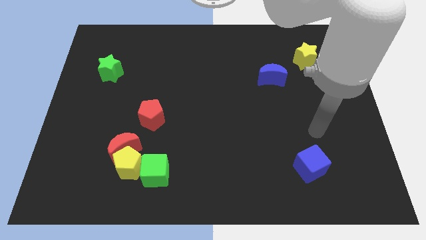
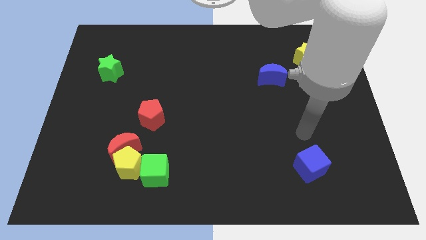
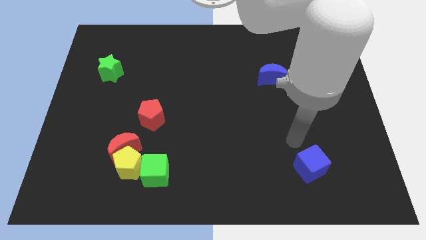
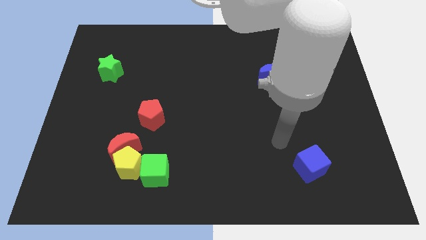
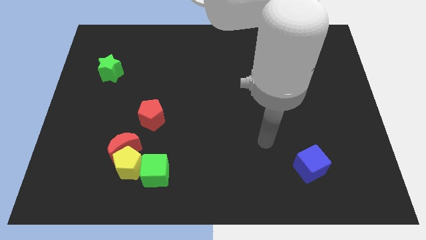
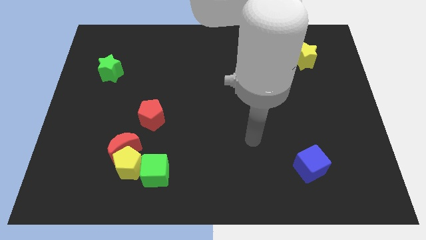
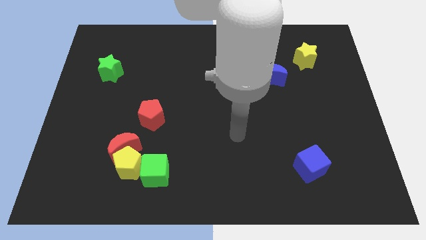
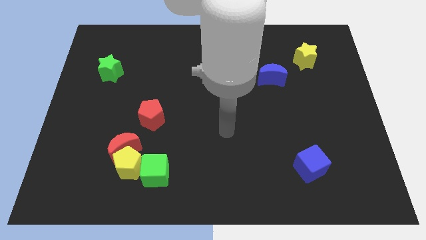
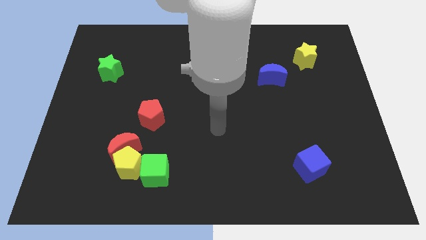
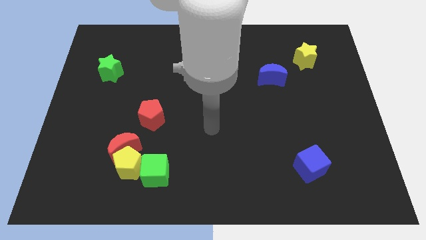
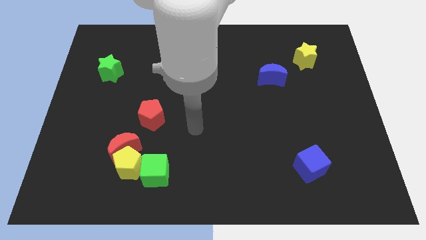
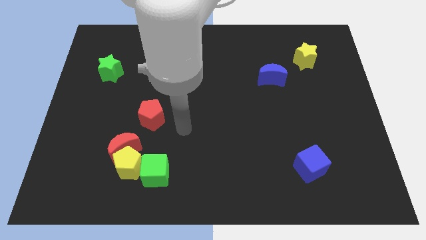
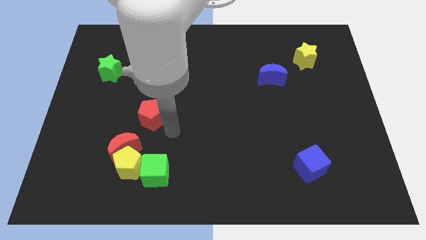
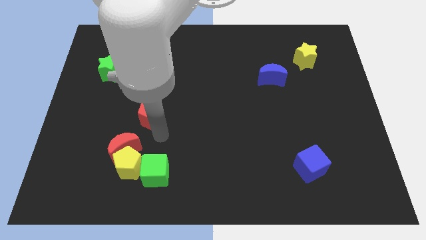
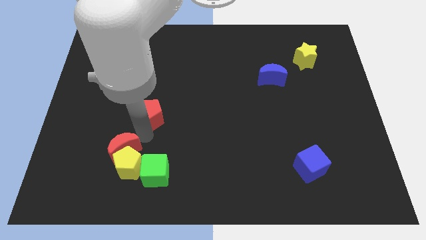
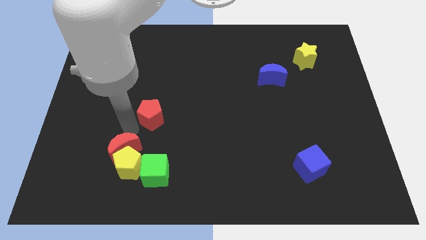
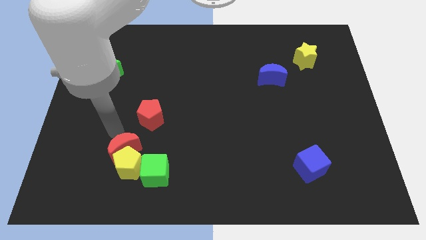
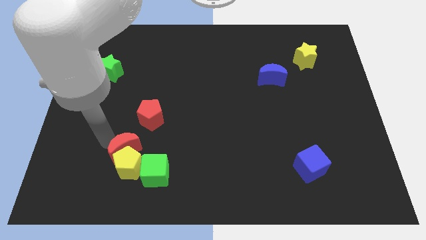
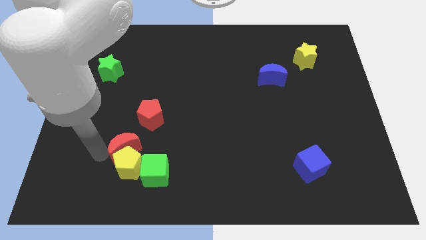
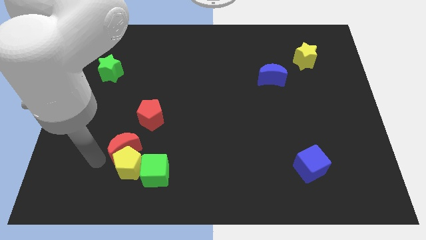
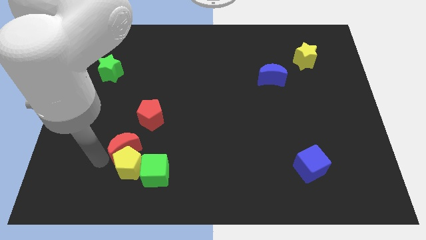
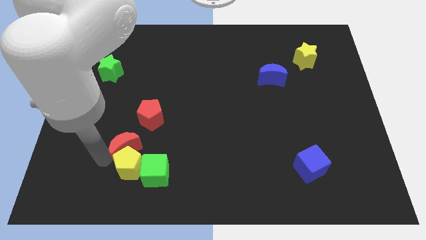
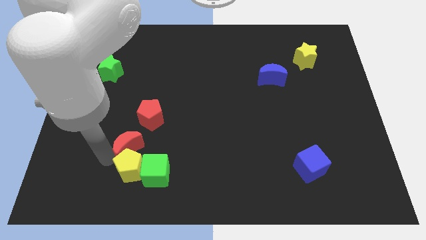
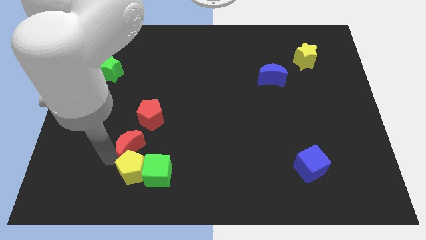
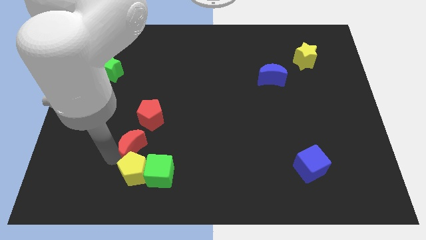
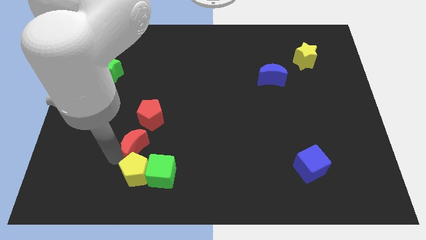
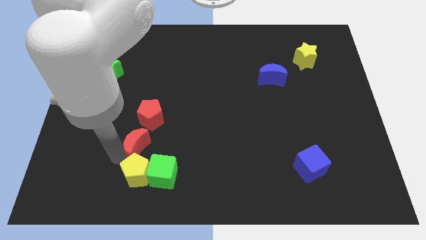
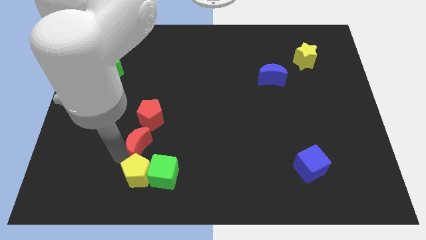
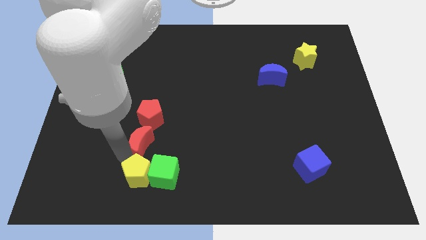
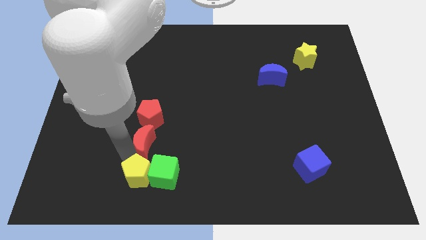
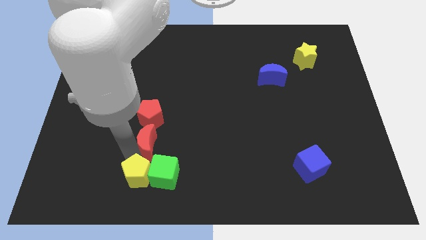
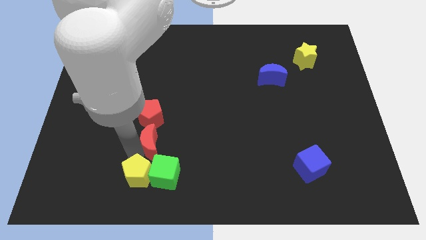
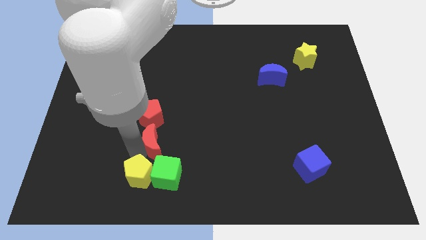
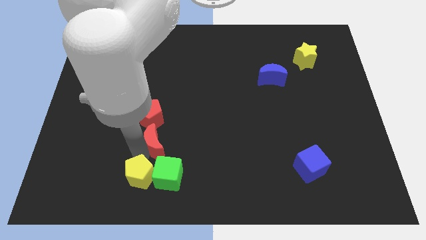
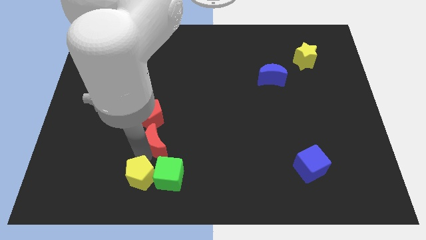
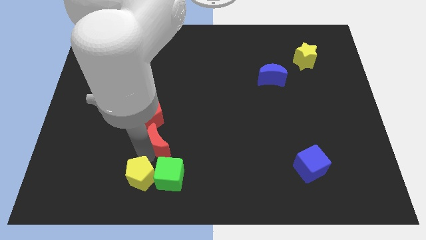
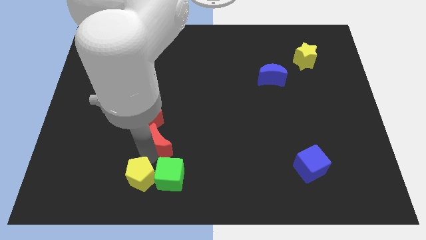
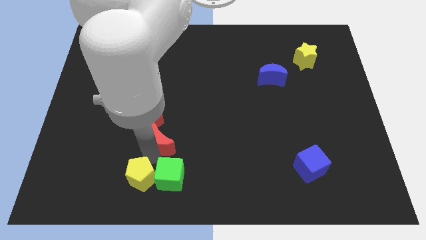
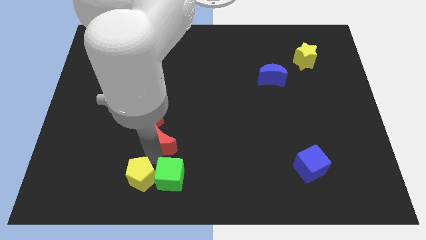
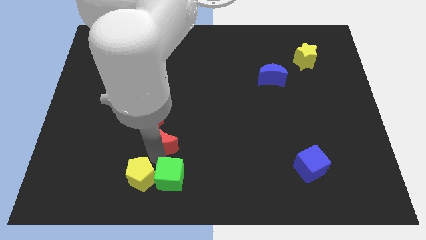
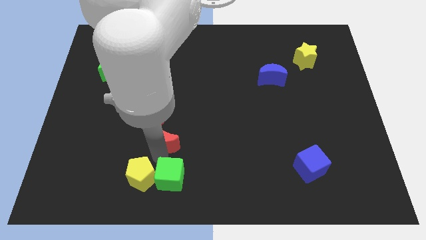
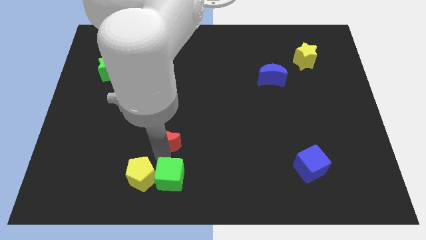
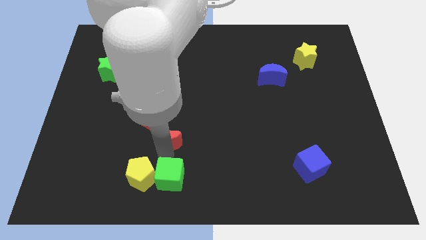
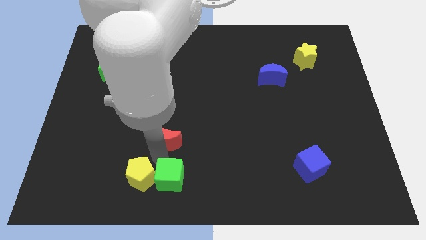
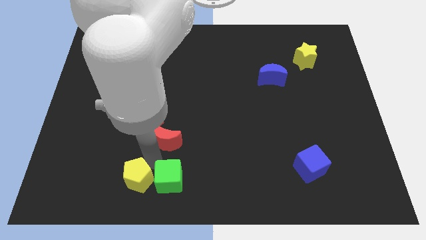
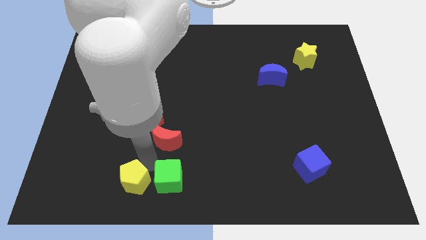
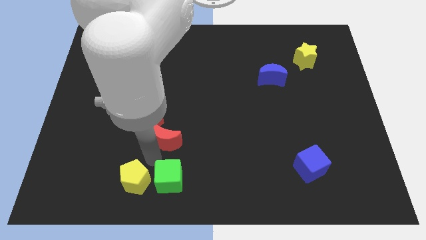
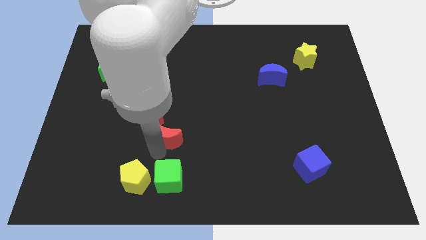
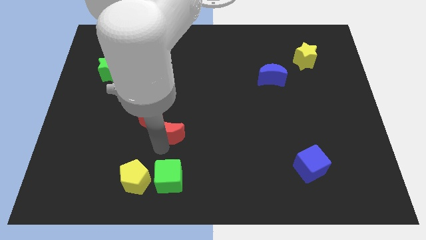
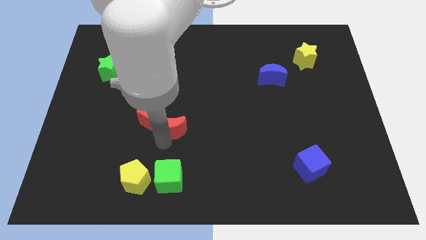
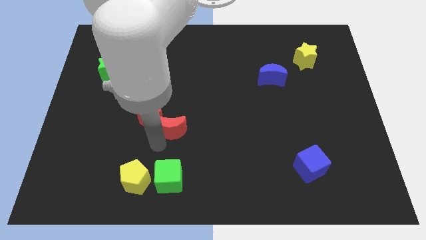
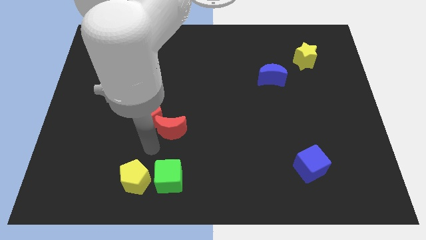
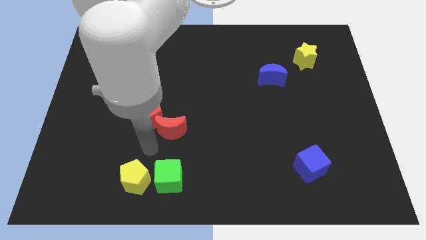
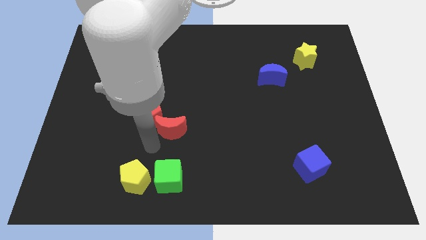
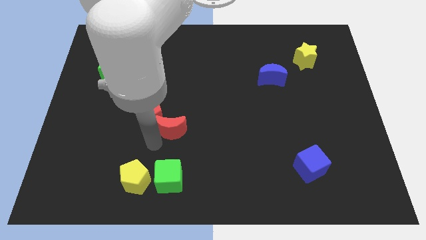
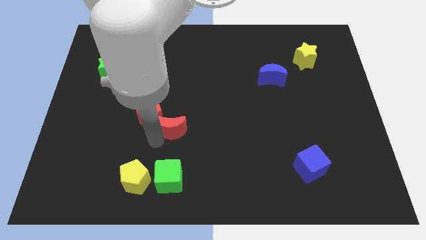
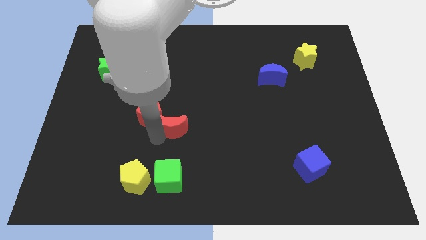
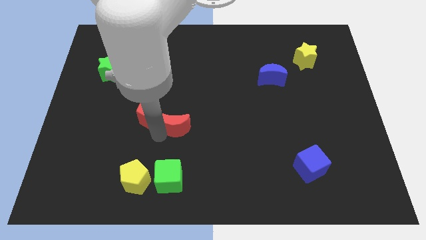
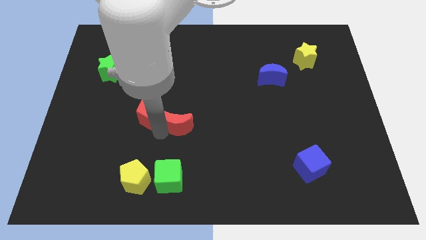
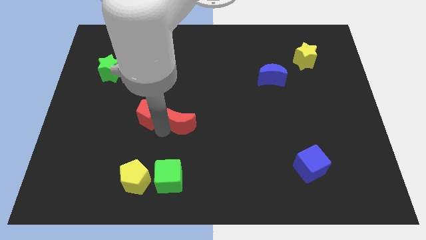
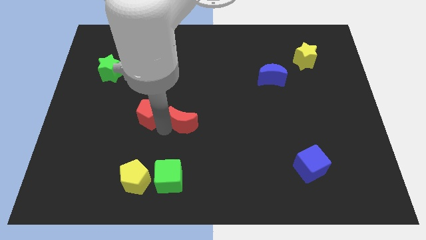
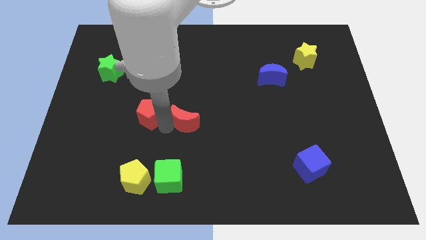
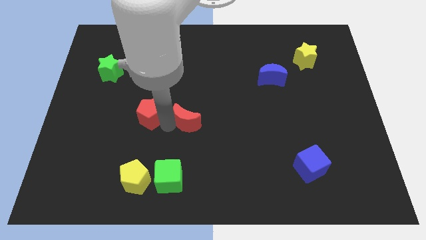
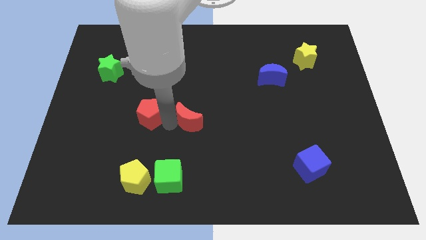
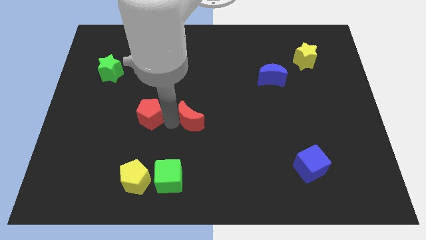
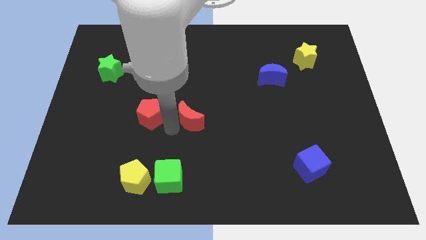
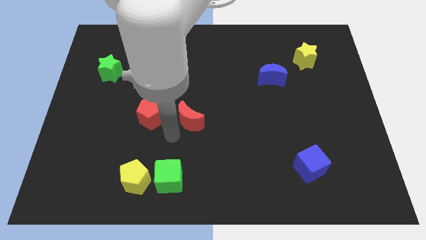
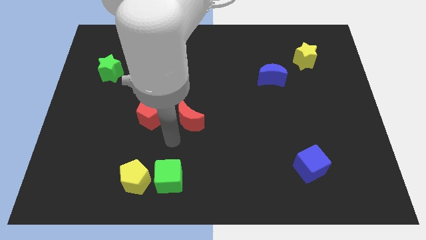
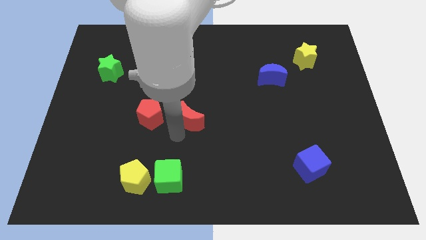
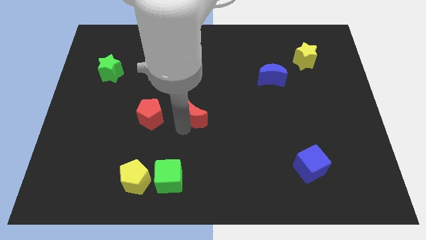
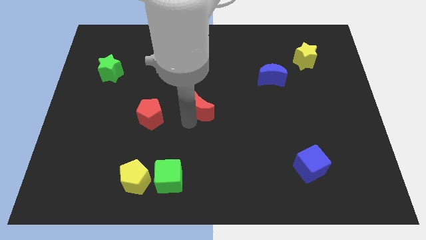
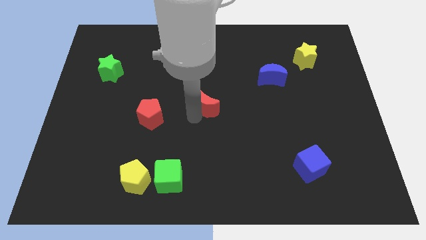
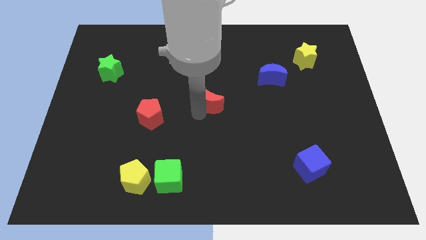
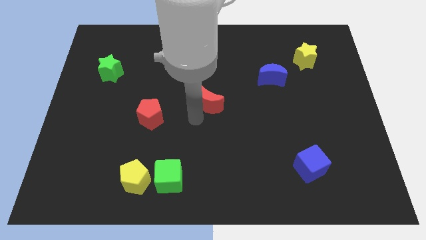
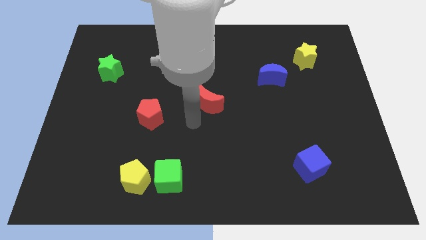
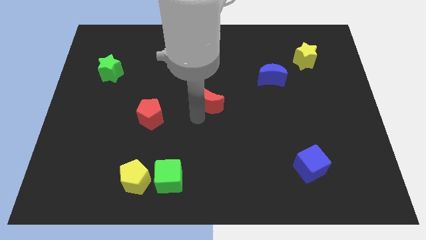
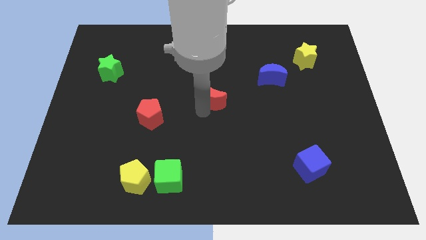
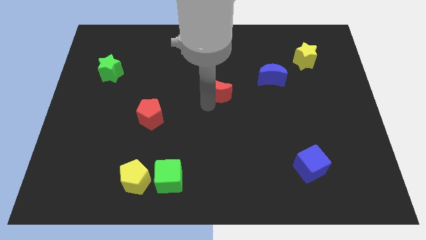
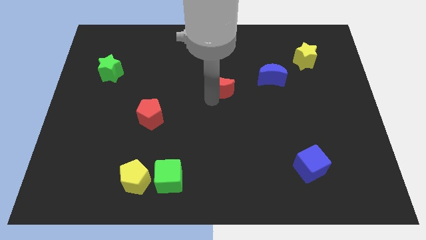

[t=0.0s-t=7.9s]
move the red moon just left of the blue moon

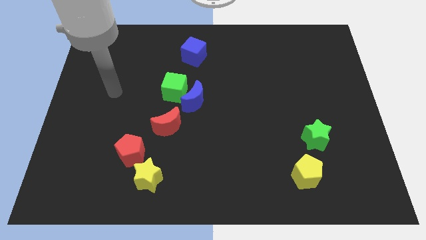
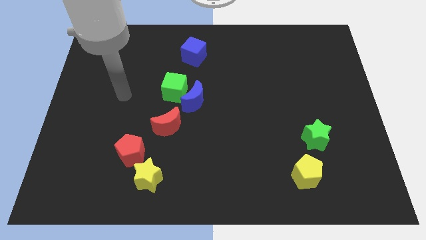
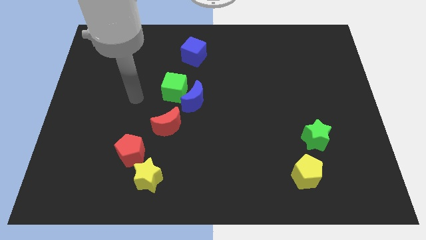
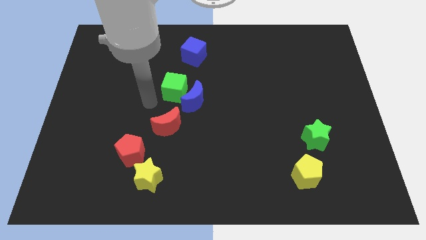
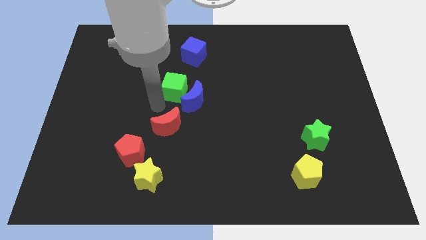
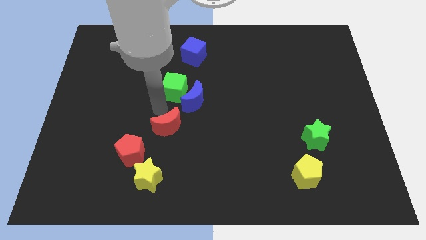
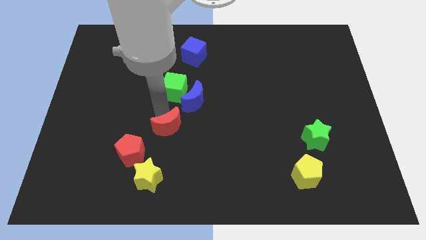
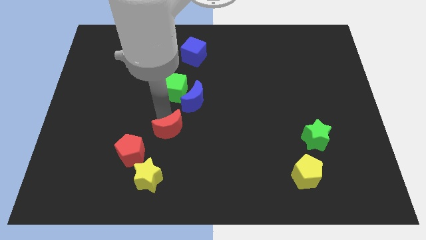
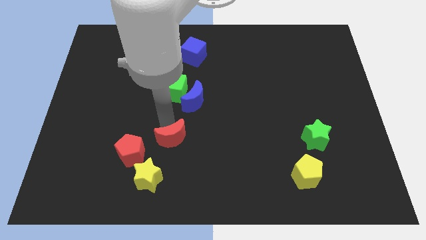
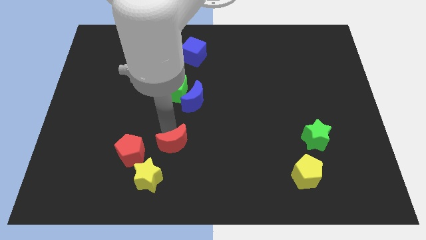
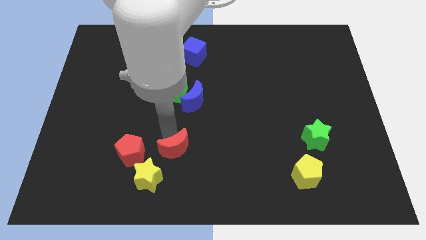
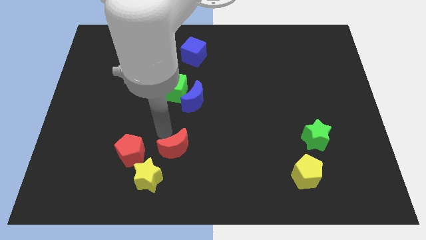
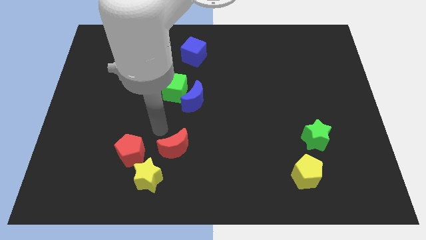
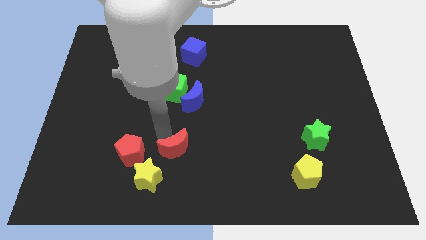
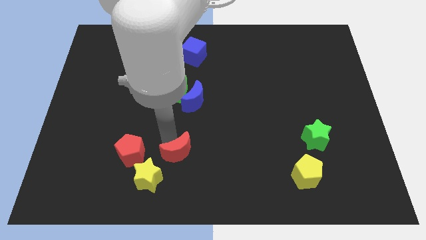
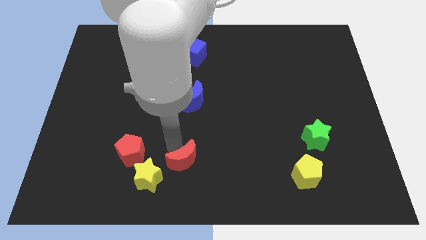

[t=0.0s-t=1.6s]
slide the red moon right of the yellow star
